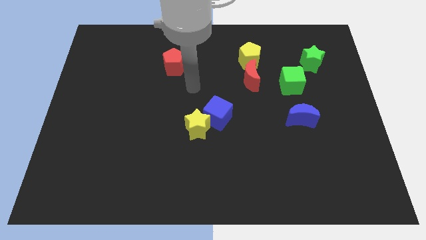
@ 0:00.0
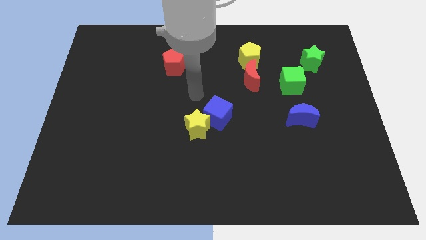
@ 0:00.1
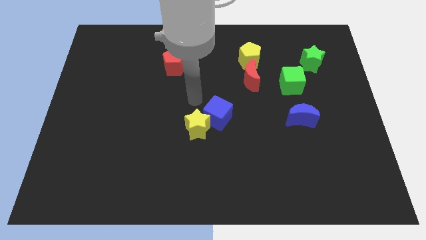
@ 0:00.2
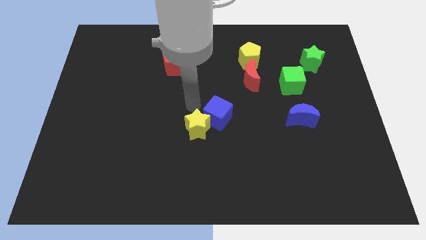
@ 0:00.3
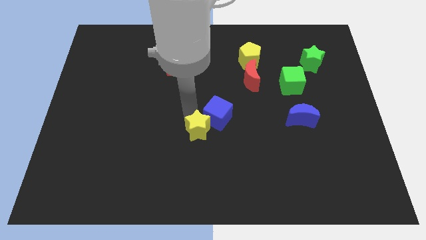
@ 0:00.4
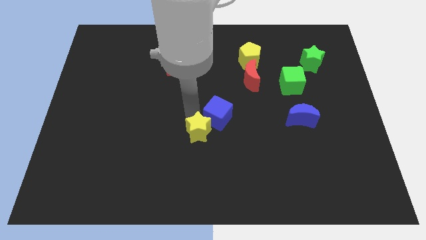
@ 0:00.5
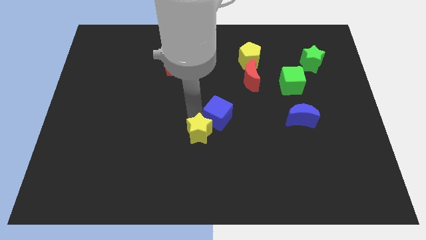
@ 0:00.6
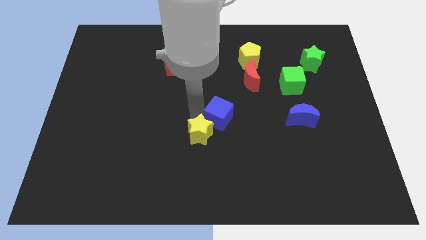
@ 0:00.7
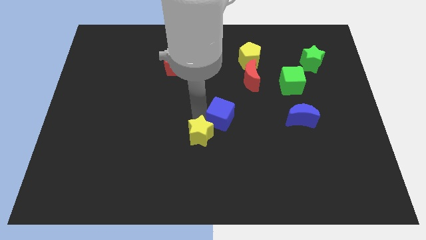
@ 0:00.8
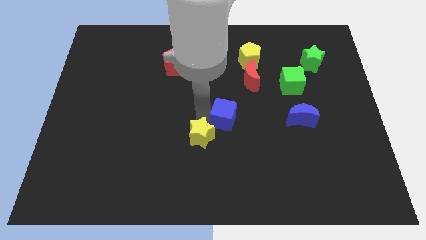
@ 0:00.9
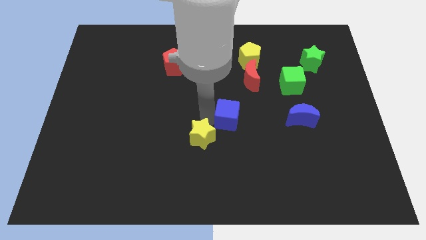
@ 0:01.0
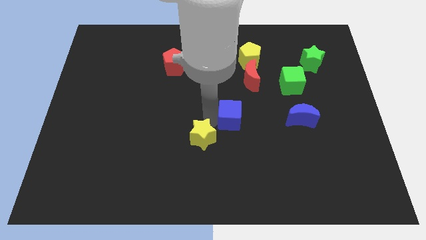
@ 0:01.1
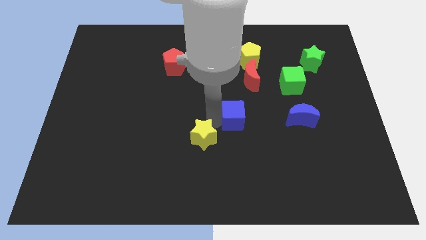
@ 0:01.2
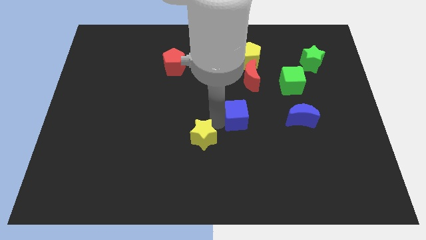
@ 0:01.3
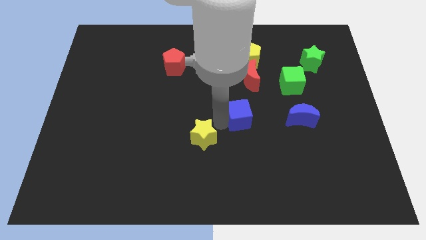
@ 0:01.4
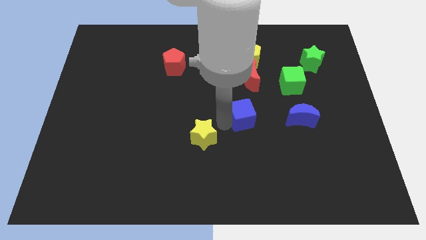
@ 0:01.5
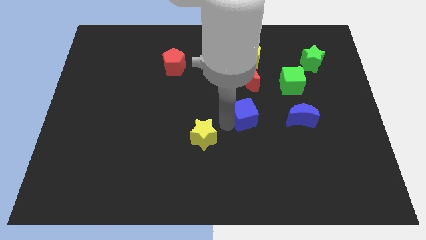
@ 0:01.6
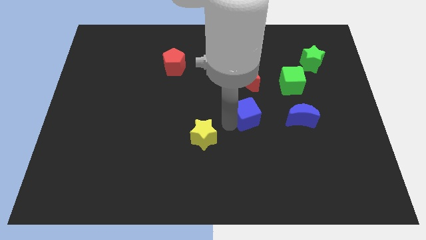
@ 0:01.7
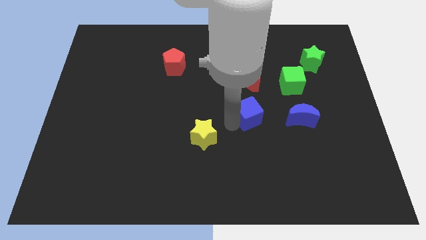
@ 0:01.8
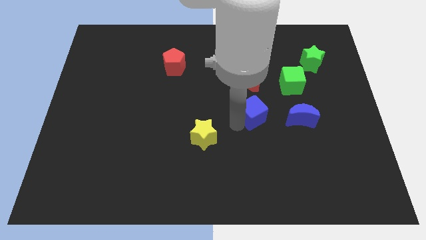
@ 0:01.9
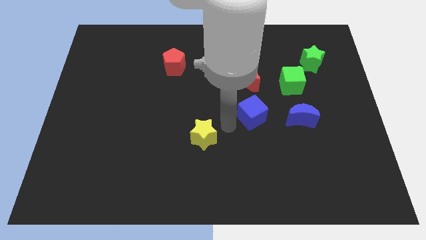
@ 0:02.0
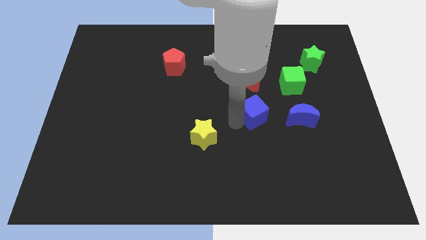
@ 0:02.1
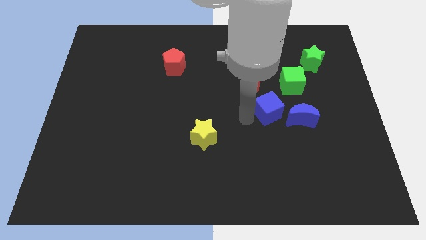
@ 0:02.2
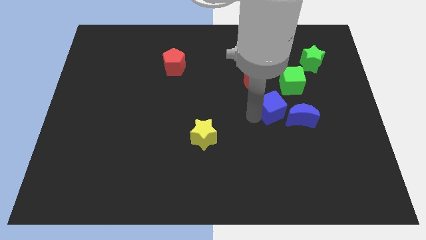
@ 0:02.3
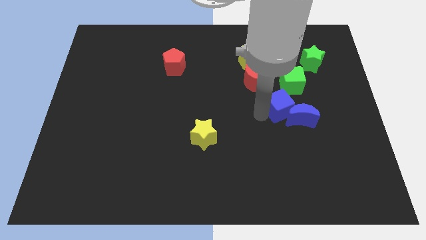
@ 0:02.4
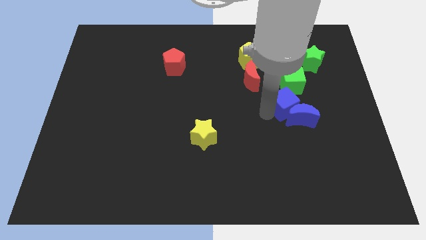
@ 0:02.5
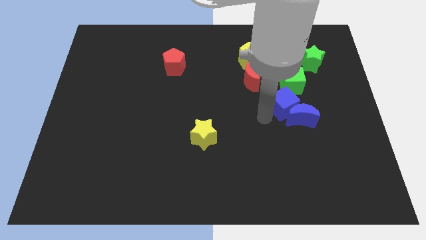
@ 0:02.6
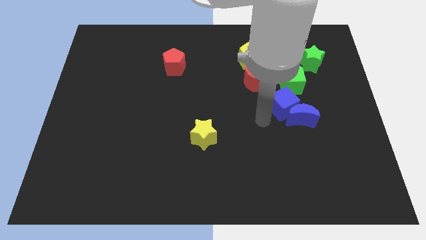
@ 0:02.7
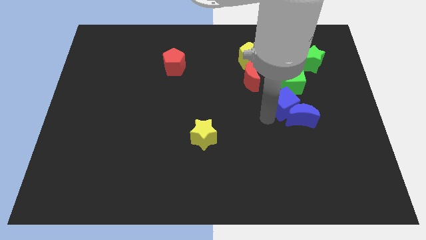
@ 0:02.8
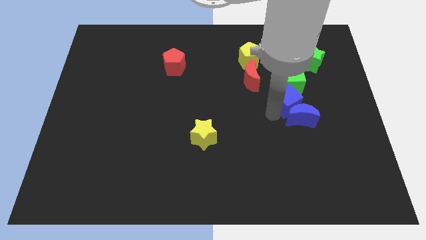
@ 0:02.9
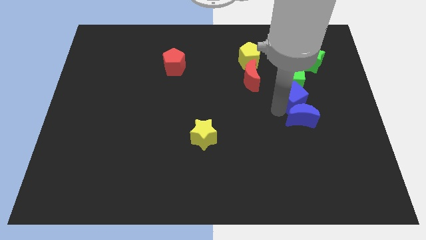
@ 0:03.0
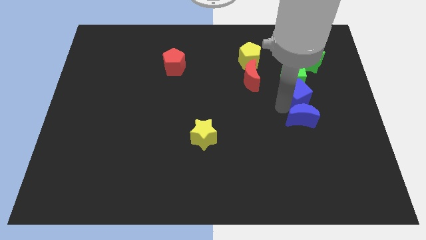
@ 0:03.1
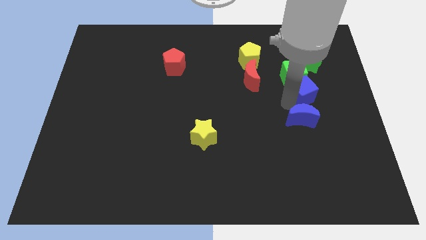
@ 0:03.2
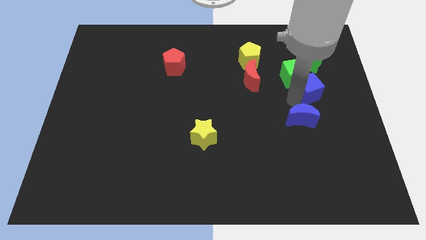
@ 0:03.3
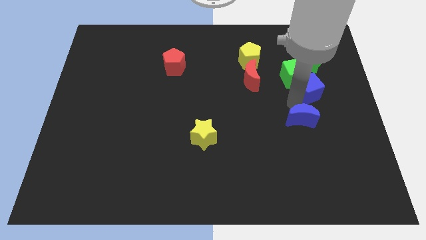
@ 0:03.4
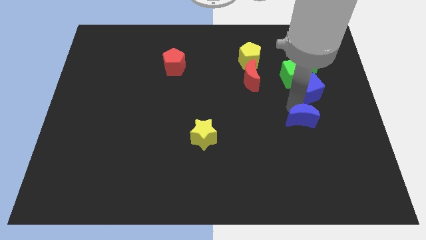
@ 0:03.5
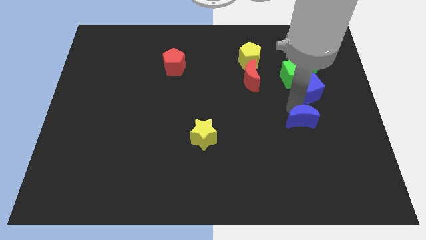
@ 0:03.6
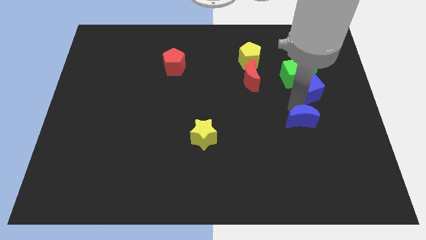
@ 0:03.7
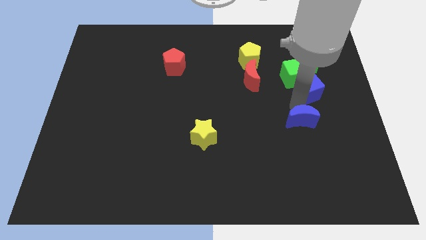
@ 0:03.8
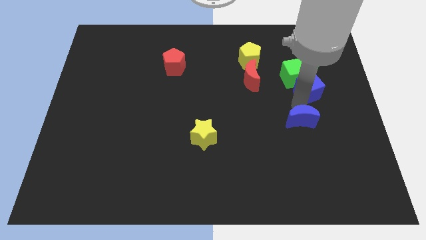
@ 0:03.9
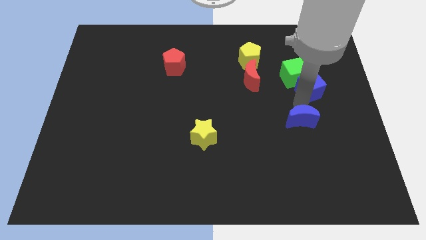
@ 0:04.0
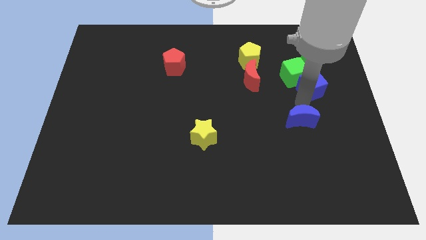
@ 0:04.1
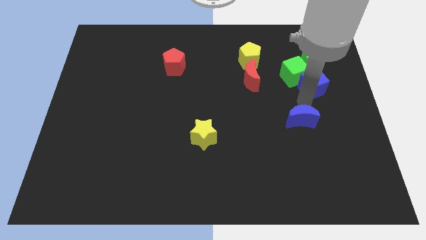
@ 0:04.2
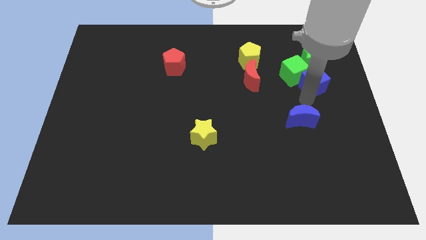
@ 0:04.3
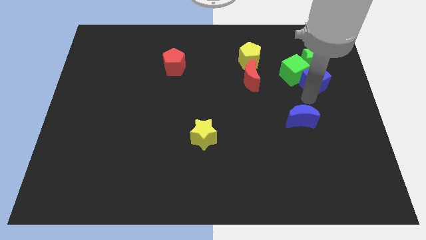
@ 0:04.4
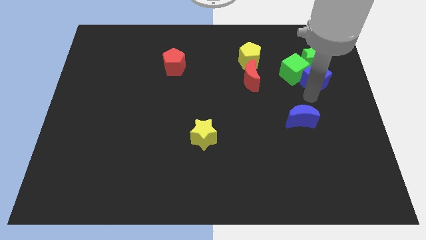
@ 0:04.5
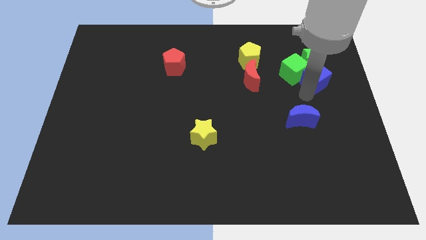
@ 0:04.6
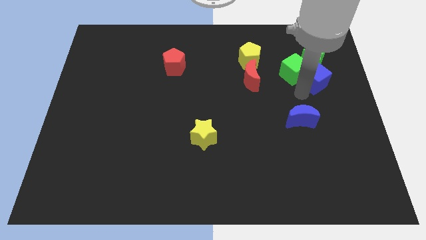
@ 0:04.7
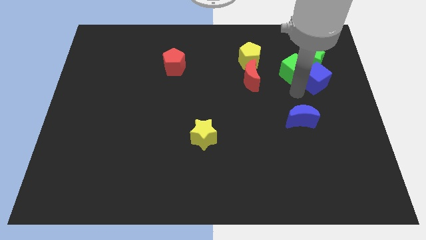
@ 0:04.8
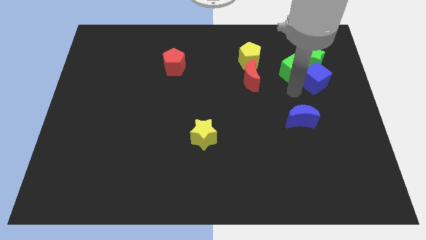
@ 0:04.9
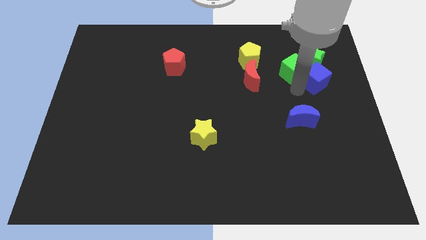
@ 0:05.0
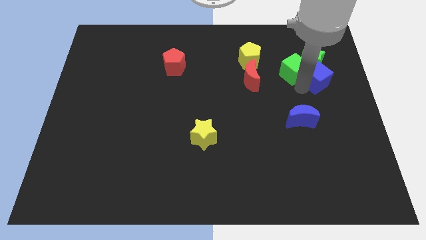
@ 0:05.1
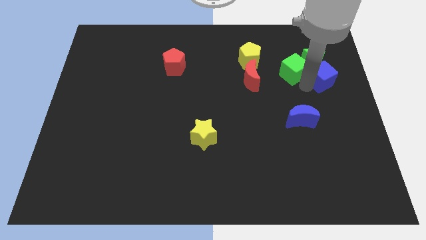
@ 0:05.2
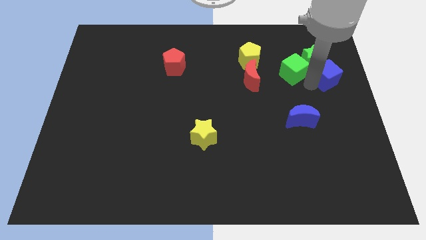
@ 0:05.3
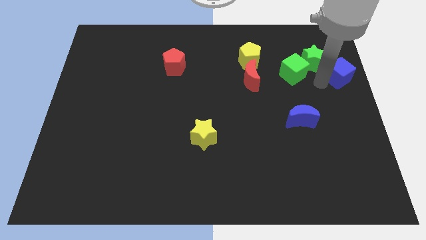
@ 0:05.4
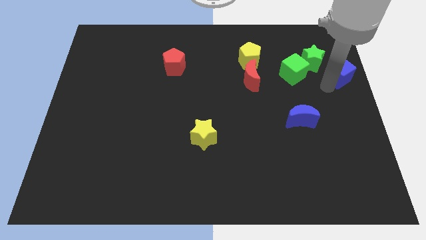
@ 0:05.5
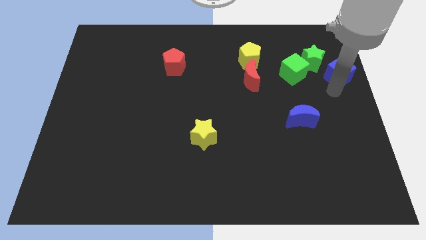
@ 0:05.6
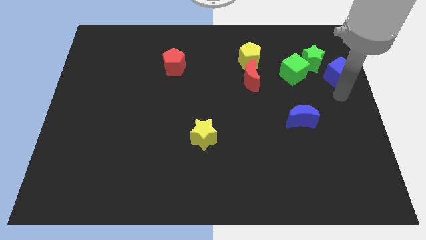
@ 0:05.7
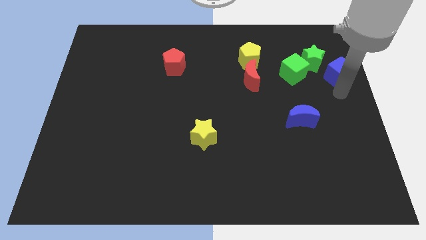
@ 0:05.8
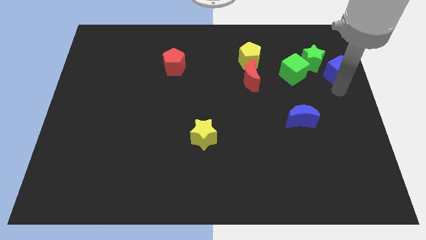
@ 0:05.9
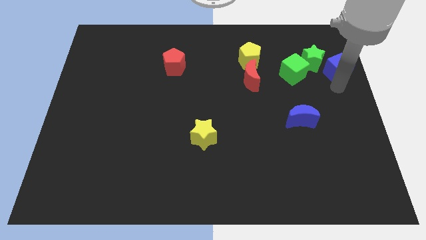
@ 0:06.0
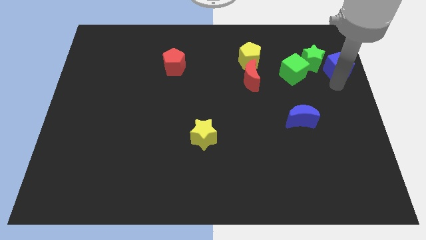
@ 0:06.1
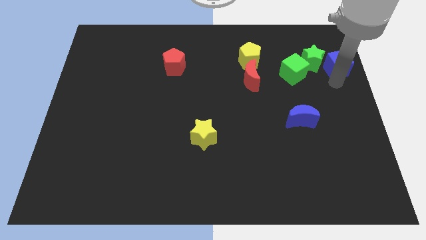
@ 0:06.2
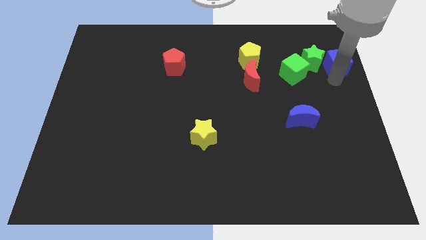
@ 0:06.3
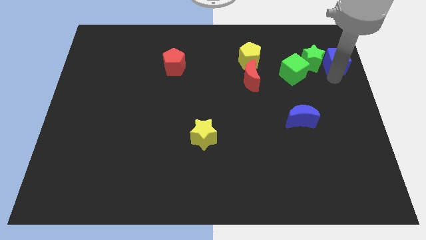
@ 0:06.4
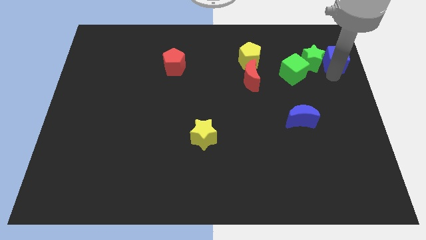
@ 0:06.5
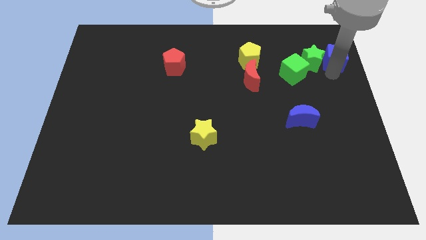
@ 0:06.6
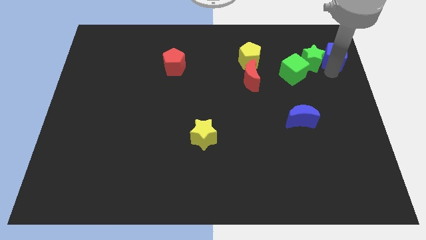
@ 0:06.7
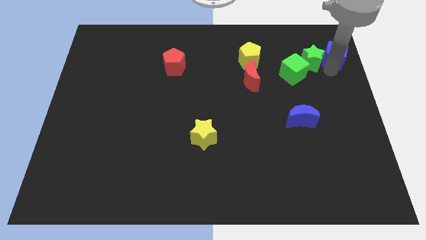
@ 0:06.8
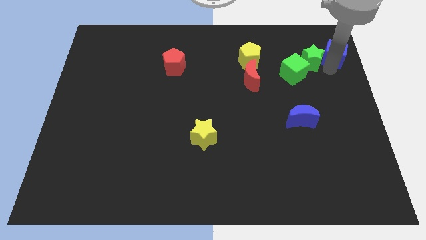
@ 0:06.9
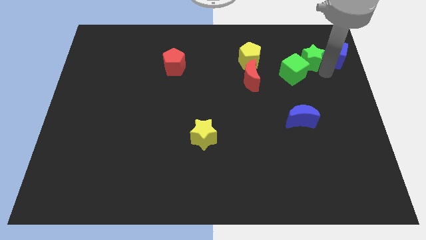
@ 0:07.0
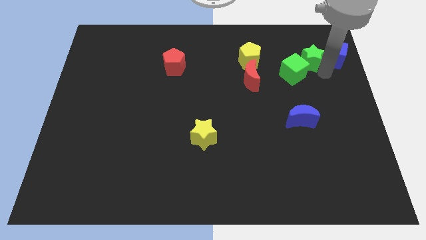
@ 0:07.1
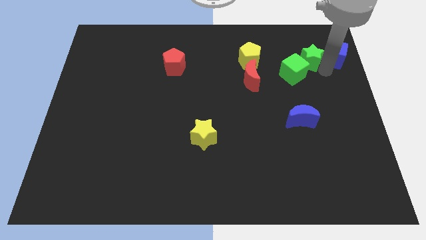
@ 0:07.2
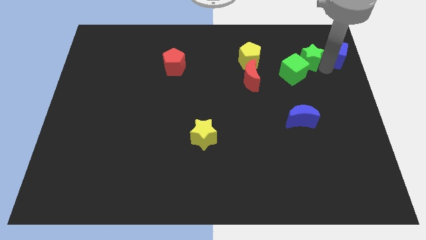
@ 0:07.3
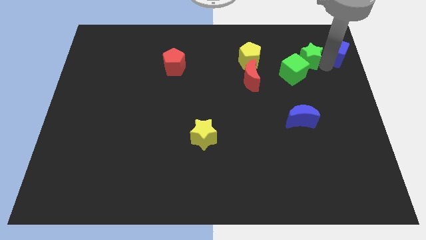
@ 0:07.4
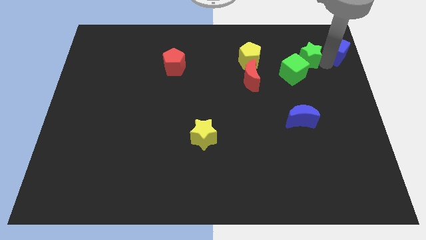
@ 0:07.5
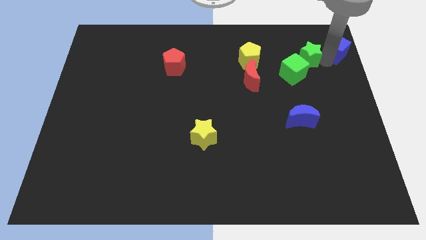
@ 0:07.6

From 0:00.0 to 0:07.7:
put the blue cube to the upper right corner
